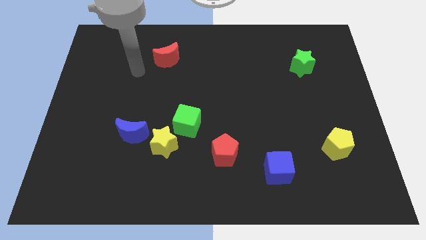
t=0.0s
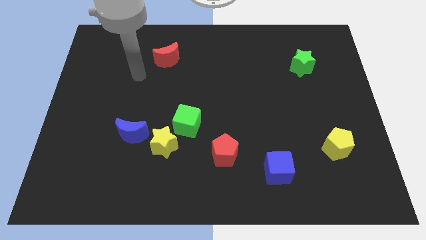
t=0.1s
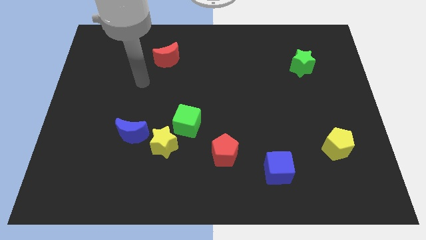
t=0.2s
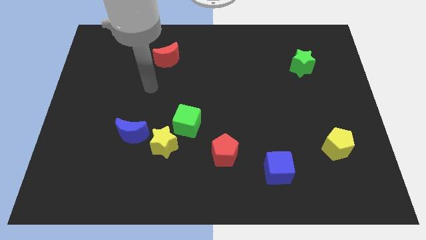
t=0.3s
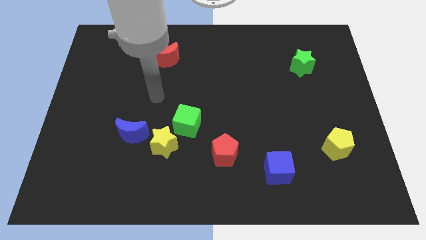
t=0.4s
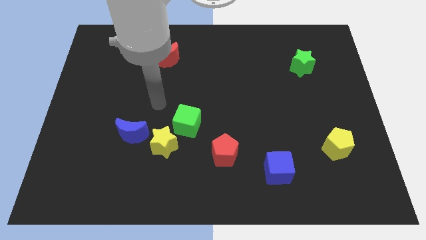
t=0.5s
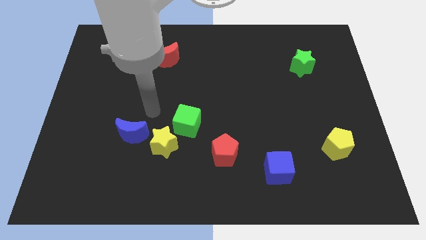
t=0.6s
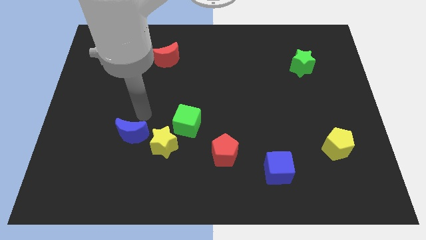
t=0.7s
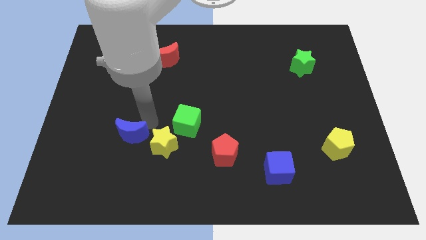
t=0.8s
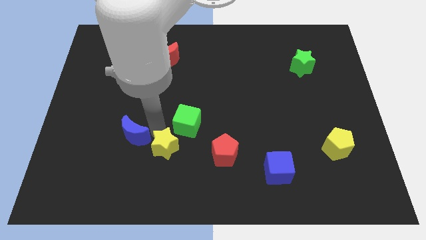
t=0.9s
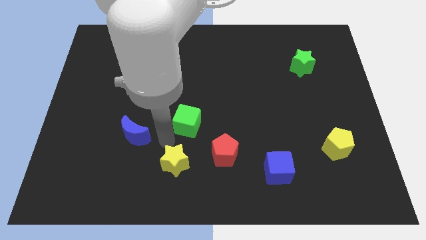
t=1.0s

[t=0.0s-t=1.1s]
pull the green cube apart from the yellow star

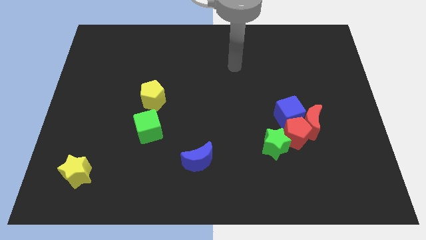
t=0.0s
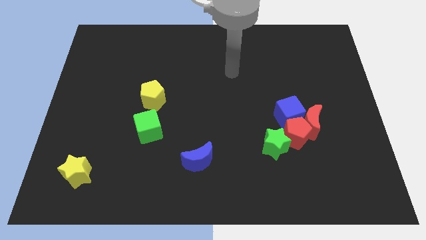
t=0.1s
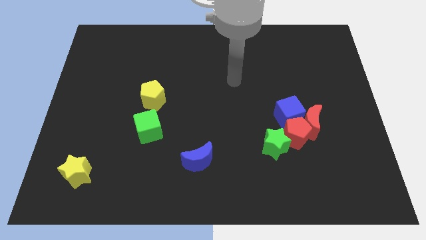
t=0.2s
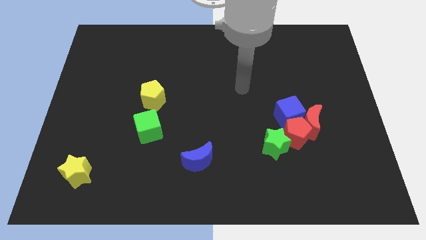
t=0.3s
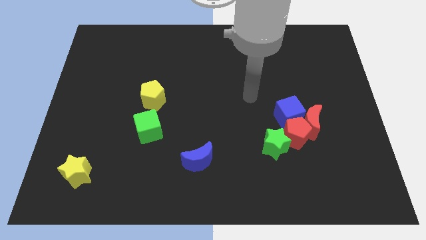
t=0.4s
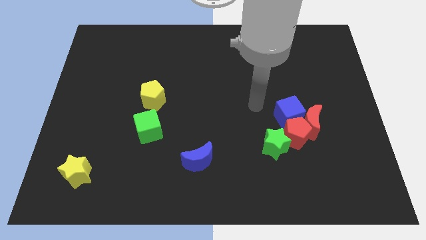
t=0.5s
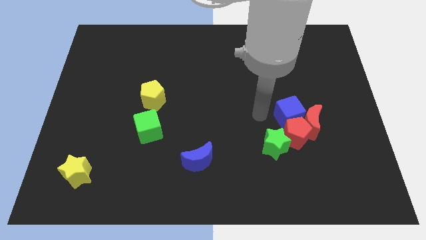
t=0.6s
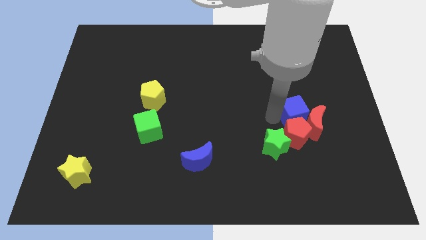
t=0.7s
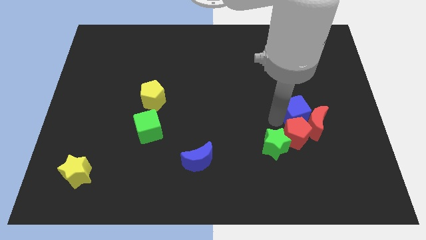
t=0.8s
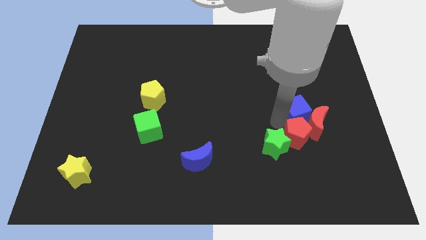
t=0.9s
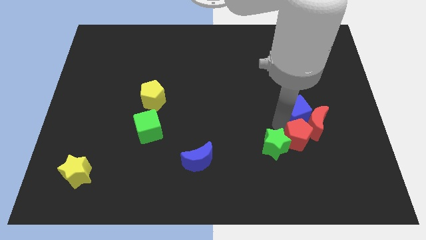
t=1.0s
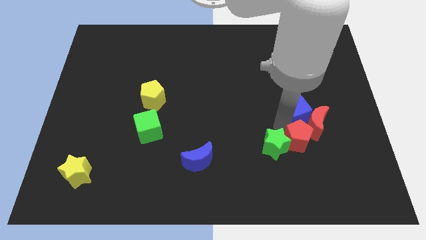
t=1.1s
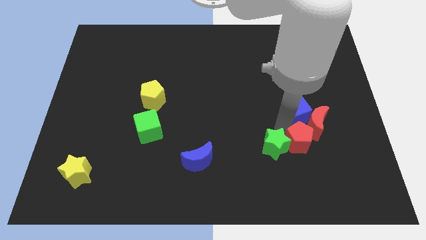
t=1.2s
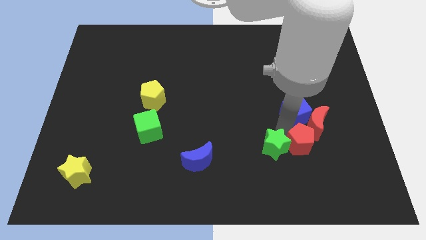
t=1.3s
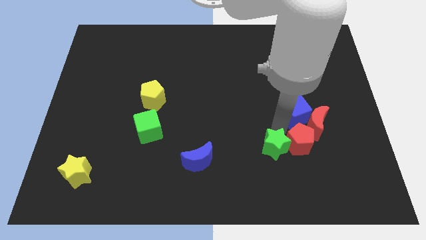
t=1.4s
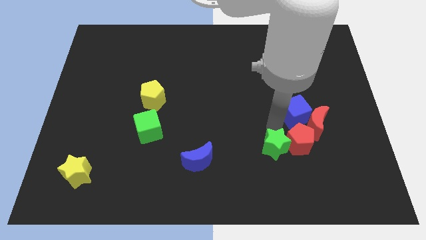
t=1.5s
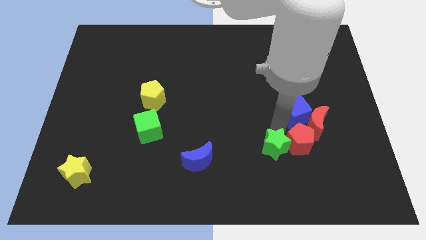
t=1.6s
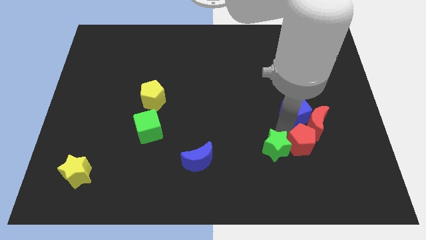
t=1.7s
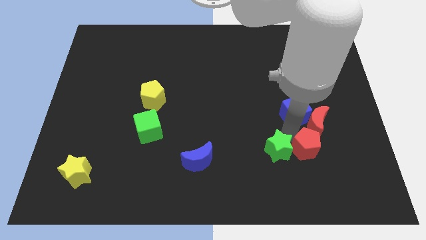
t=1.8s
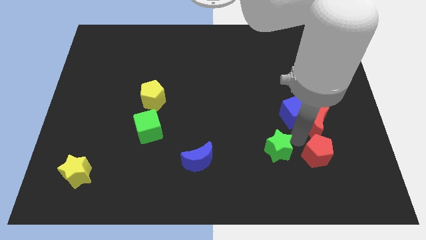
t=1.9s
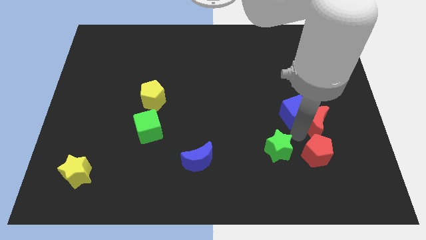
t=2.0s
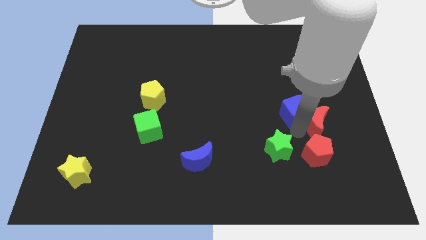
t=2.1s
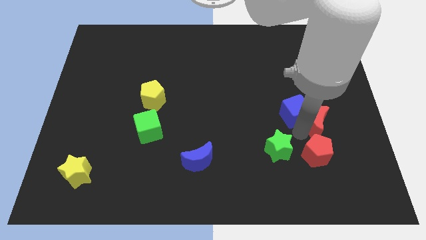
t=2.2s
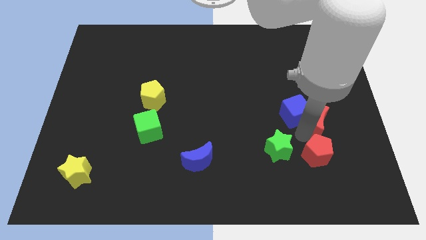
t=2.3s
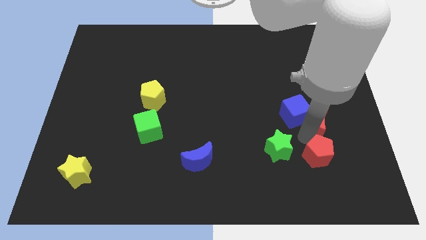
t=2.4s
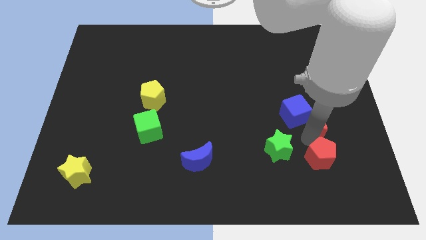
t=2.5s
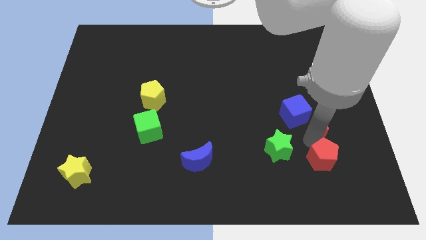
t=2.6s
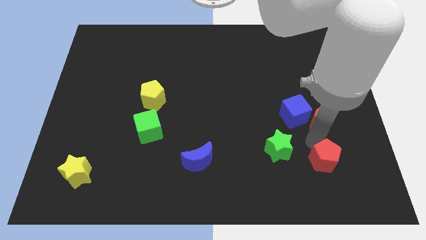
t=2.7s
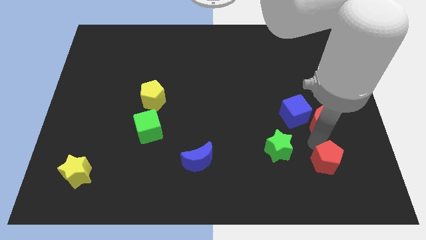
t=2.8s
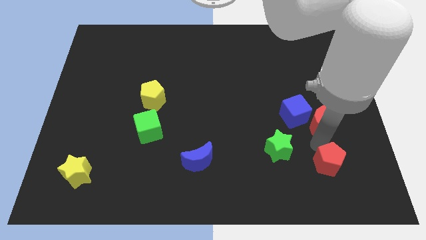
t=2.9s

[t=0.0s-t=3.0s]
separate the red pentagon from the group

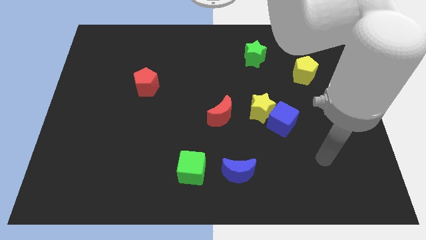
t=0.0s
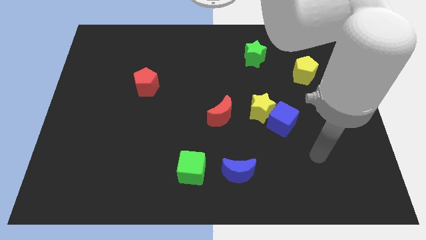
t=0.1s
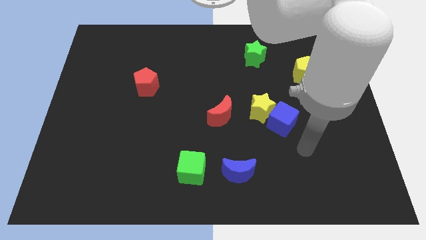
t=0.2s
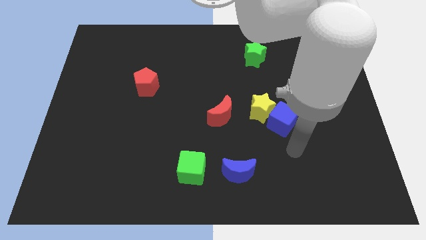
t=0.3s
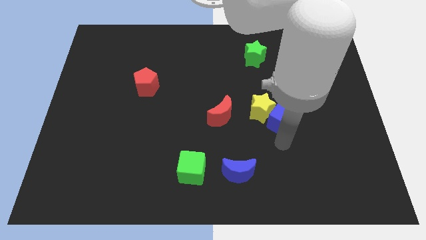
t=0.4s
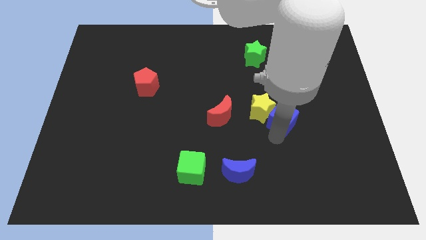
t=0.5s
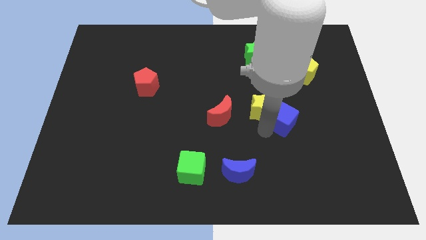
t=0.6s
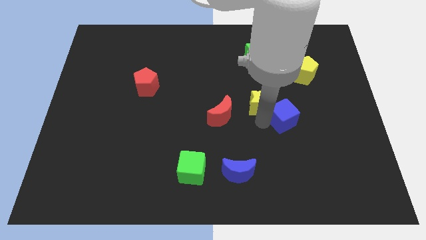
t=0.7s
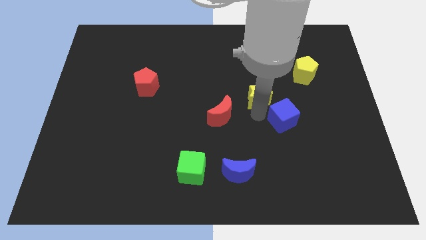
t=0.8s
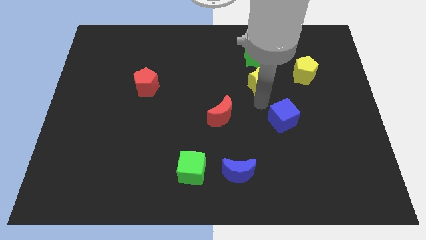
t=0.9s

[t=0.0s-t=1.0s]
move the blue cube away from the yellow star

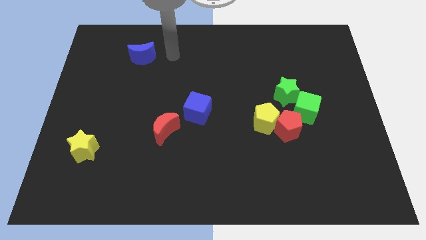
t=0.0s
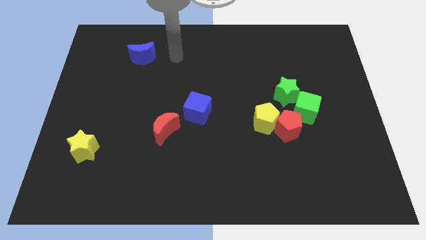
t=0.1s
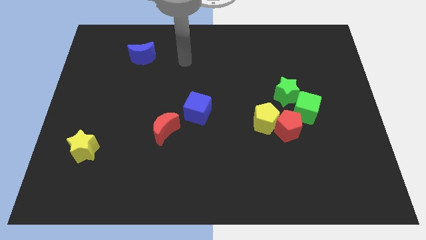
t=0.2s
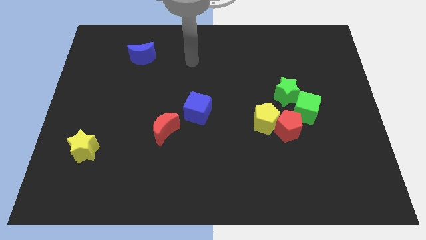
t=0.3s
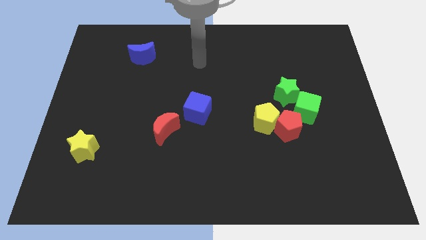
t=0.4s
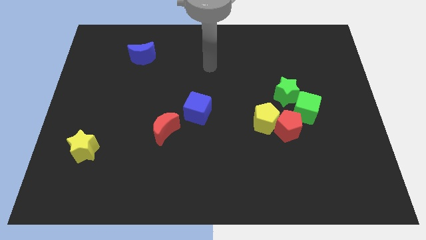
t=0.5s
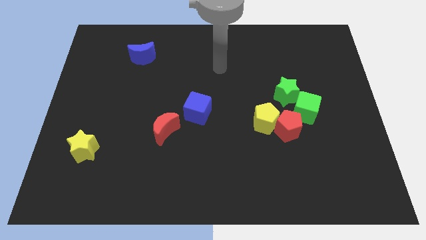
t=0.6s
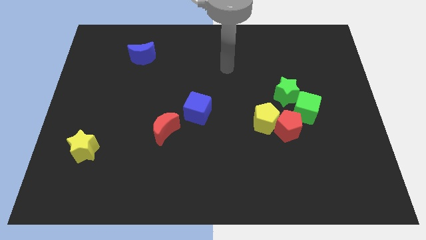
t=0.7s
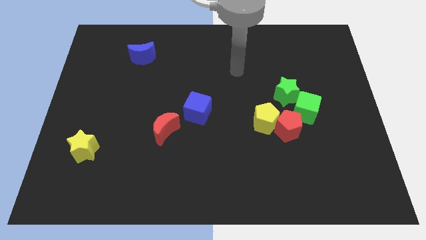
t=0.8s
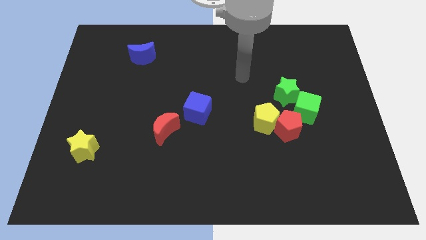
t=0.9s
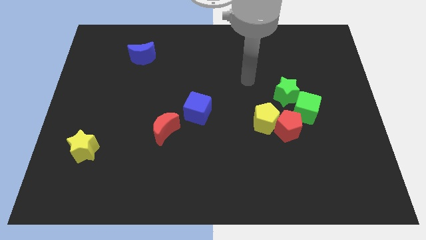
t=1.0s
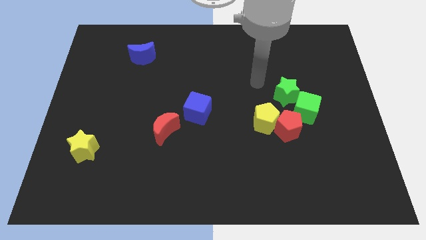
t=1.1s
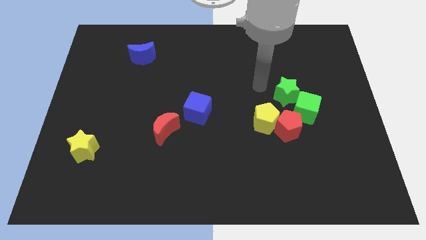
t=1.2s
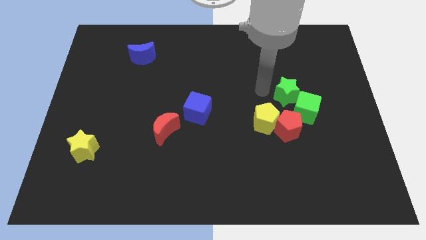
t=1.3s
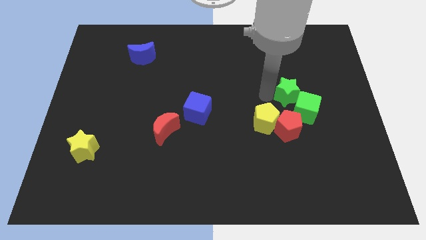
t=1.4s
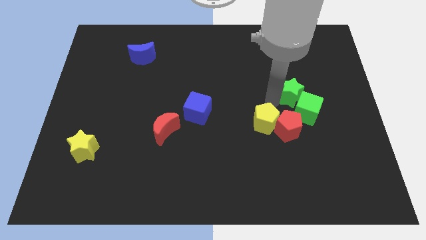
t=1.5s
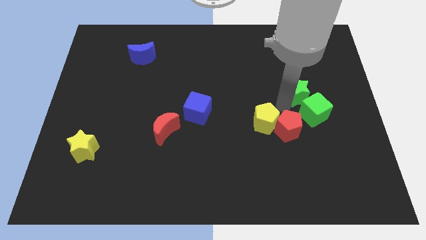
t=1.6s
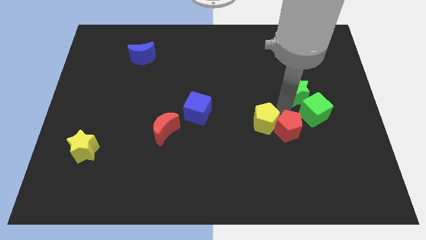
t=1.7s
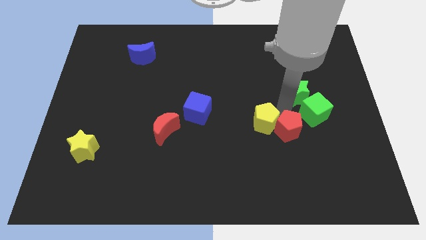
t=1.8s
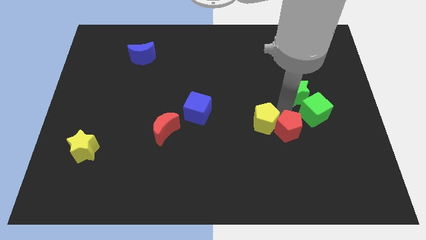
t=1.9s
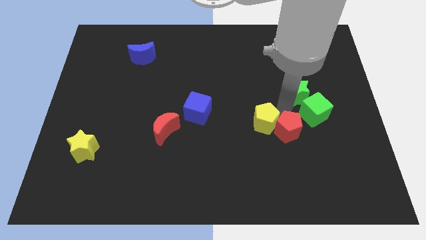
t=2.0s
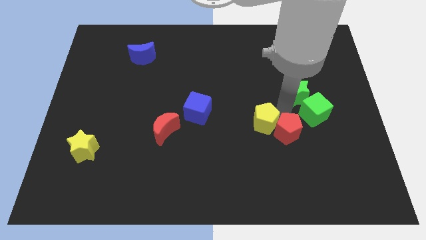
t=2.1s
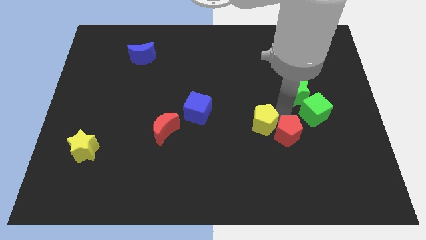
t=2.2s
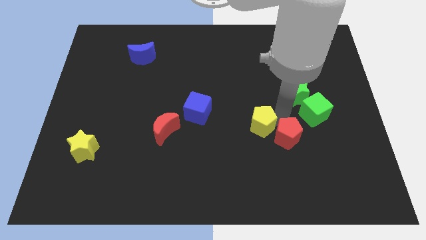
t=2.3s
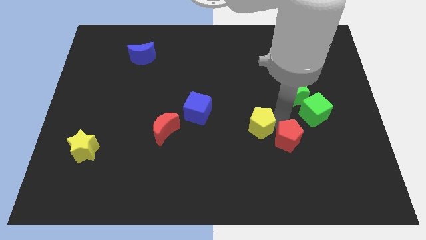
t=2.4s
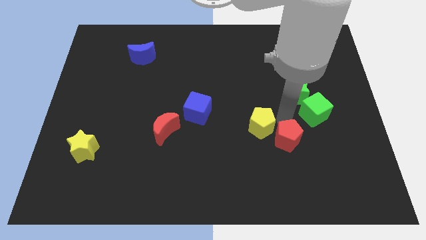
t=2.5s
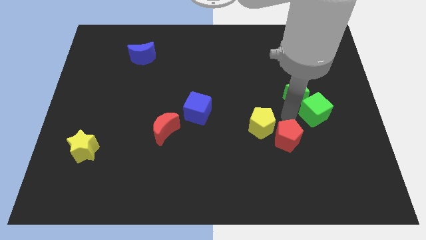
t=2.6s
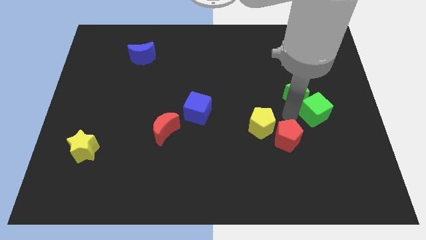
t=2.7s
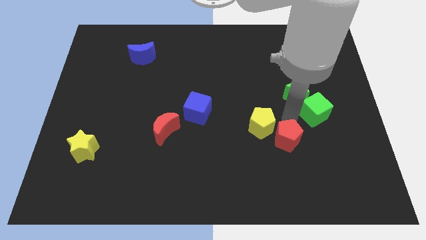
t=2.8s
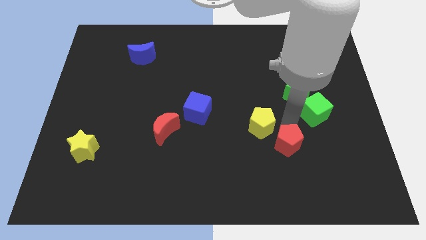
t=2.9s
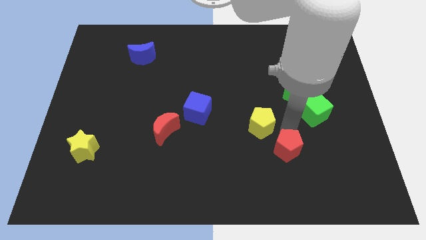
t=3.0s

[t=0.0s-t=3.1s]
move the red pentagon away from the clump

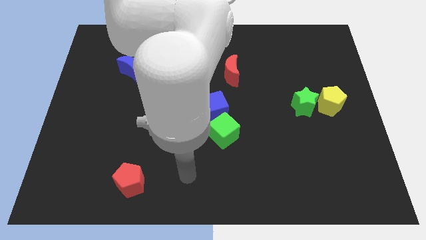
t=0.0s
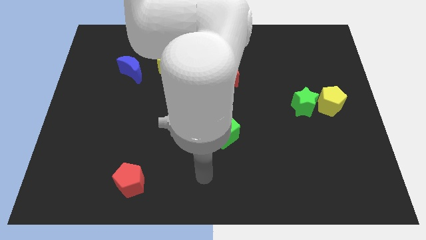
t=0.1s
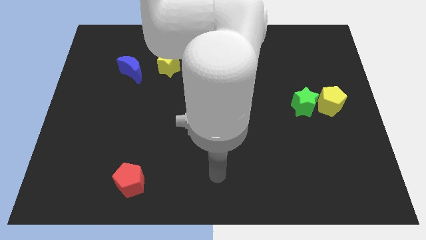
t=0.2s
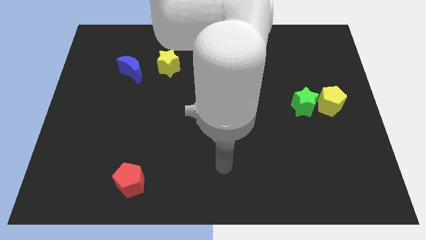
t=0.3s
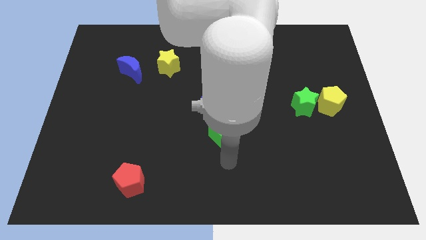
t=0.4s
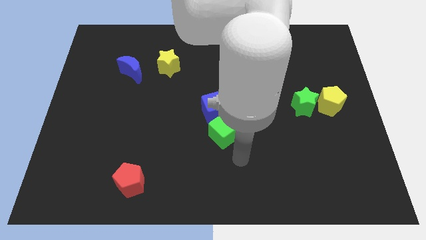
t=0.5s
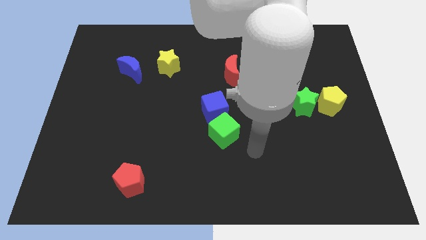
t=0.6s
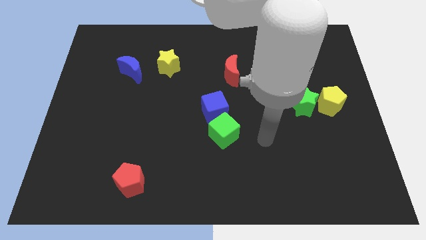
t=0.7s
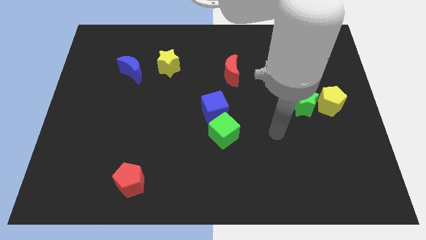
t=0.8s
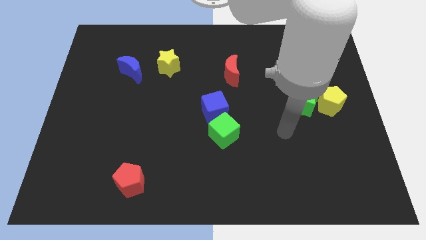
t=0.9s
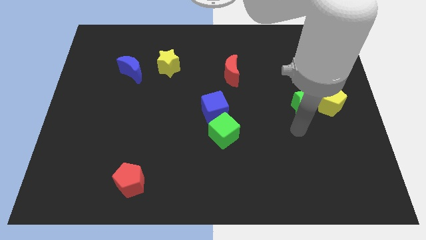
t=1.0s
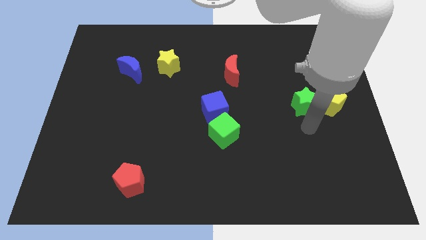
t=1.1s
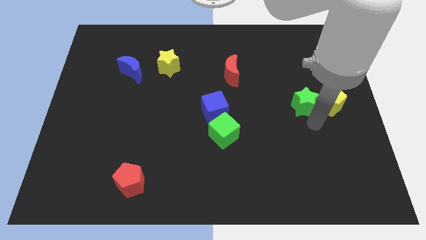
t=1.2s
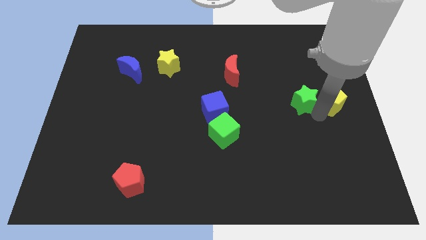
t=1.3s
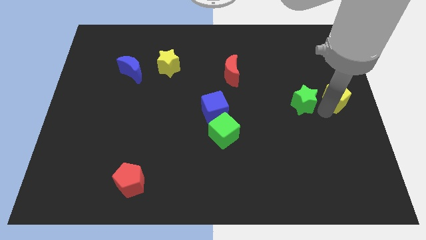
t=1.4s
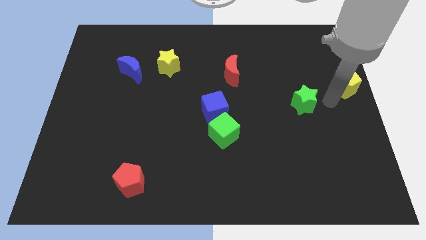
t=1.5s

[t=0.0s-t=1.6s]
pull the green star apart from the yellow pentagon
